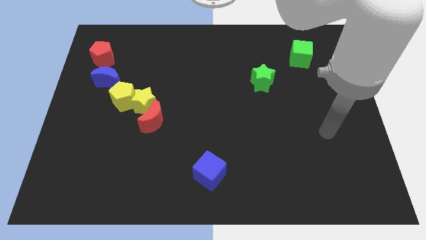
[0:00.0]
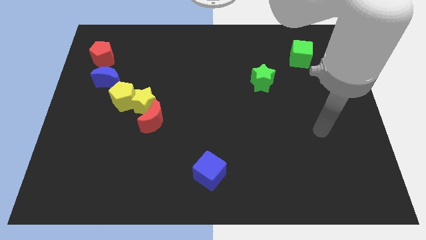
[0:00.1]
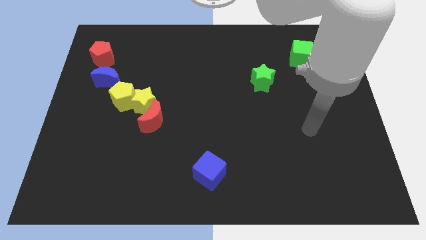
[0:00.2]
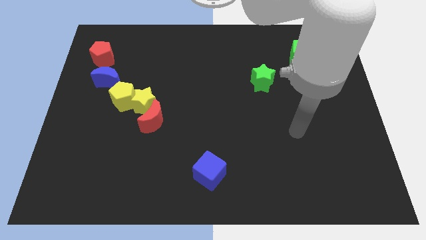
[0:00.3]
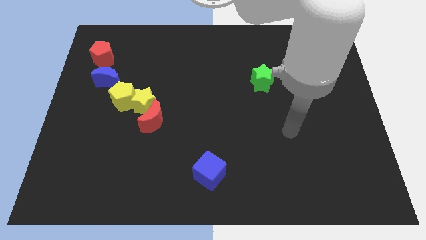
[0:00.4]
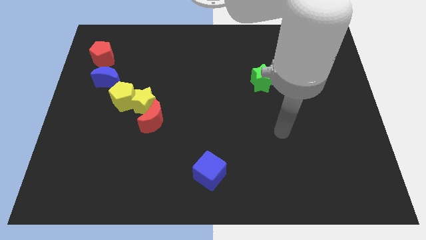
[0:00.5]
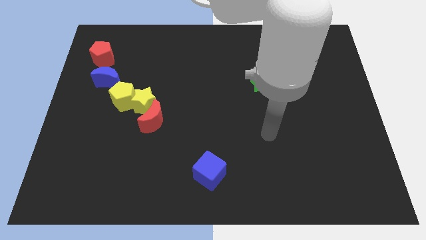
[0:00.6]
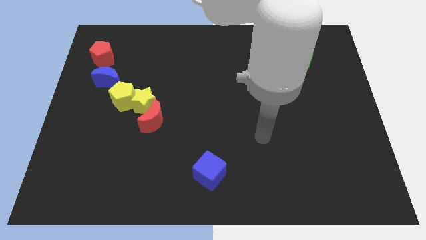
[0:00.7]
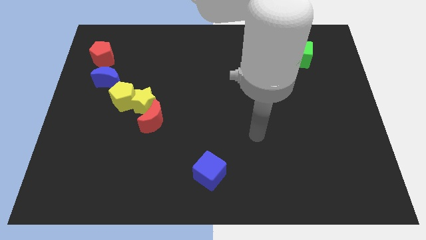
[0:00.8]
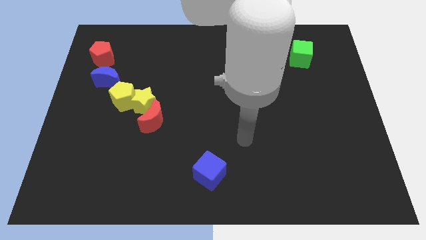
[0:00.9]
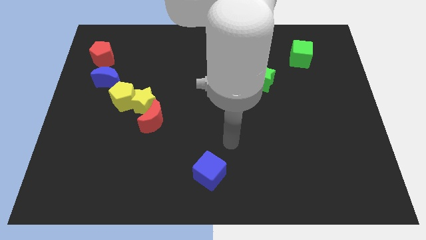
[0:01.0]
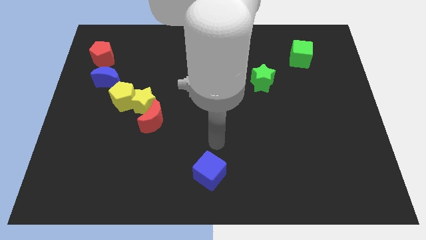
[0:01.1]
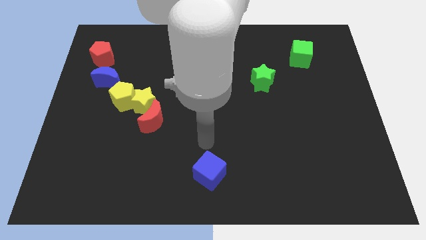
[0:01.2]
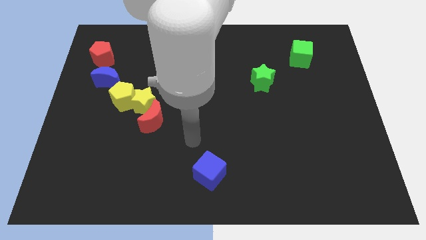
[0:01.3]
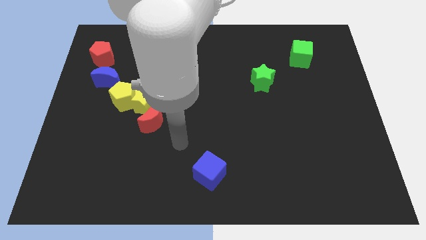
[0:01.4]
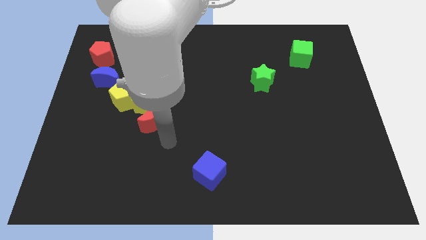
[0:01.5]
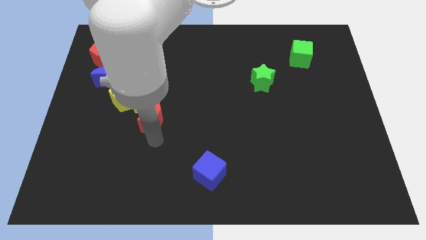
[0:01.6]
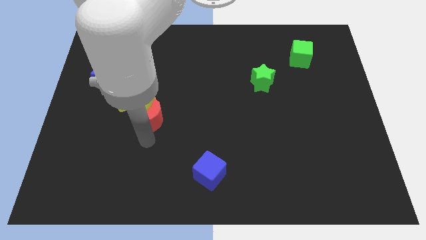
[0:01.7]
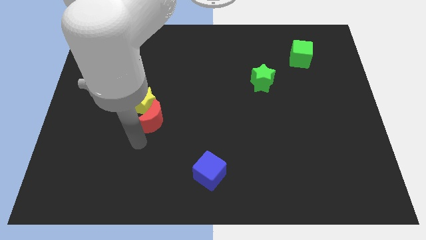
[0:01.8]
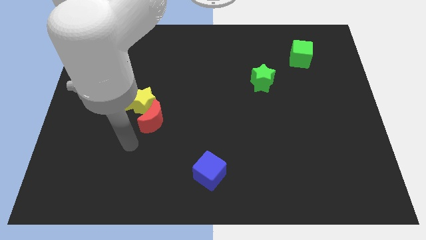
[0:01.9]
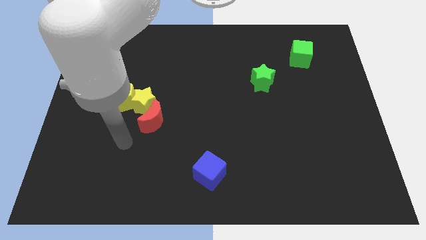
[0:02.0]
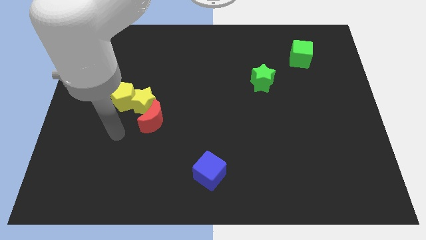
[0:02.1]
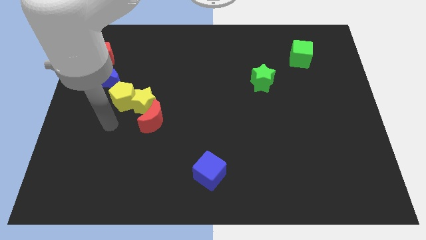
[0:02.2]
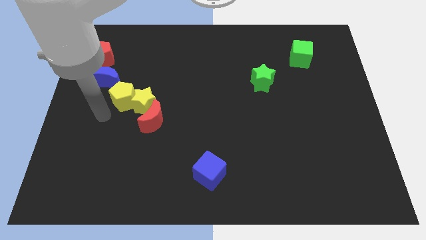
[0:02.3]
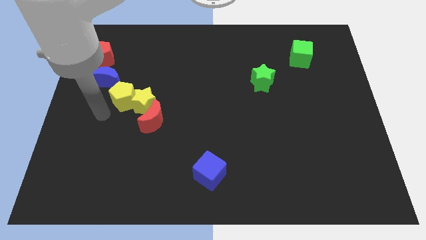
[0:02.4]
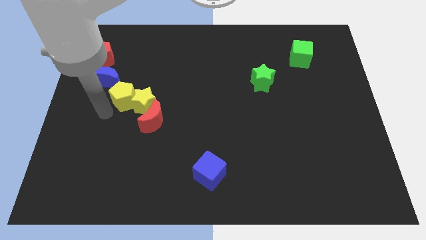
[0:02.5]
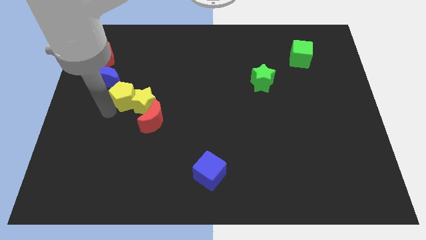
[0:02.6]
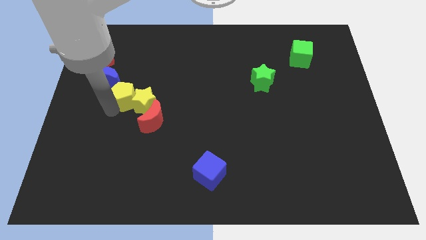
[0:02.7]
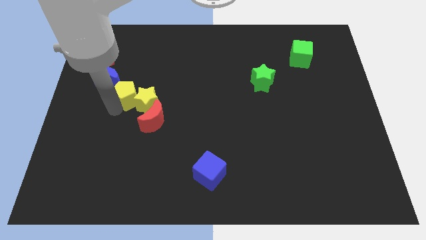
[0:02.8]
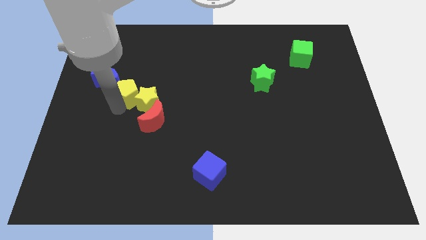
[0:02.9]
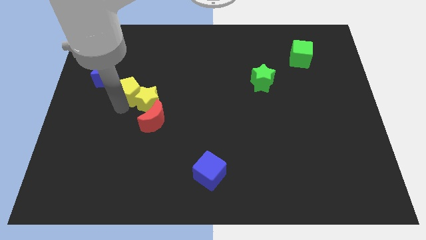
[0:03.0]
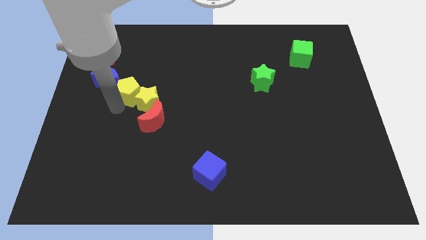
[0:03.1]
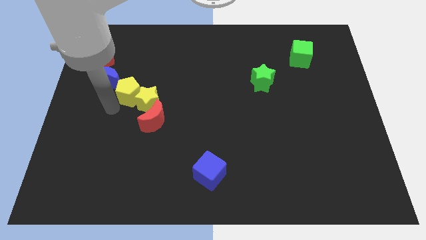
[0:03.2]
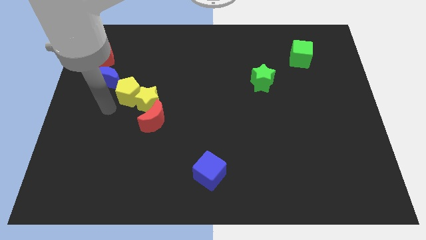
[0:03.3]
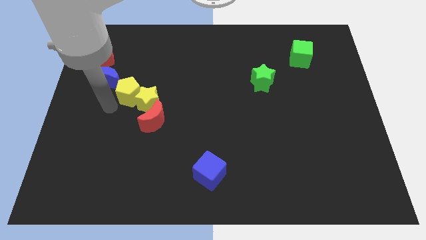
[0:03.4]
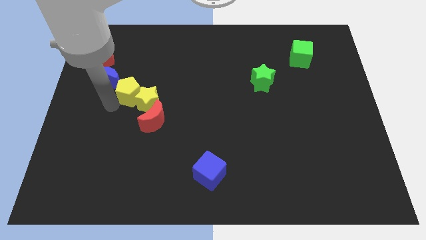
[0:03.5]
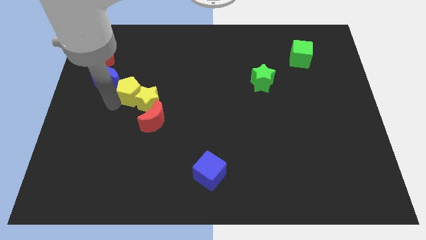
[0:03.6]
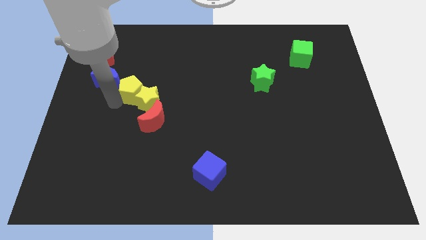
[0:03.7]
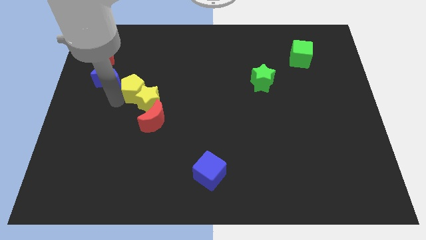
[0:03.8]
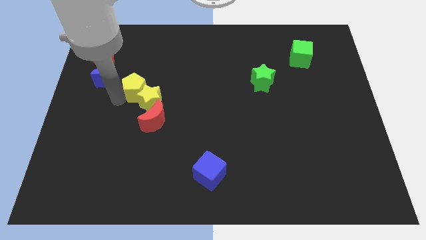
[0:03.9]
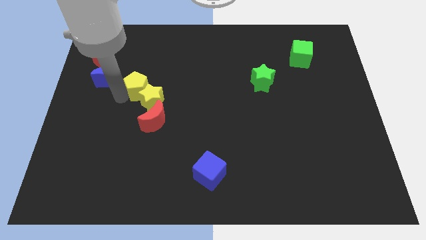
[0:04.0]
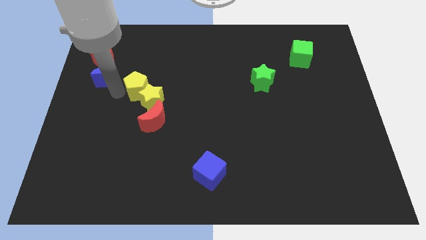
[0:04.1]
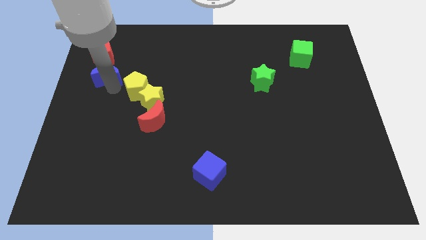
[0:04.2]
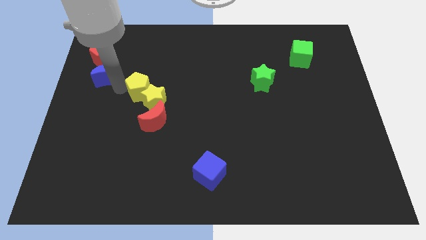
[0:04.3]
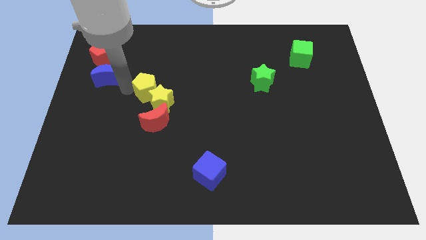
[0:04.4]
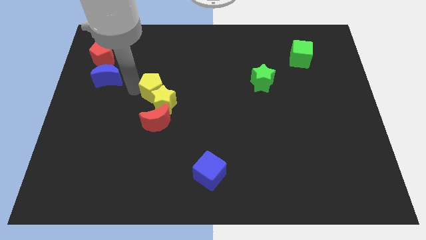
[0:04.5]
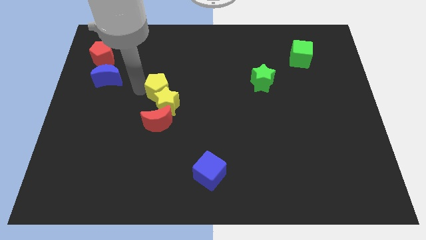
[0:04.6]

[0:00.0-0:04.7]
slide the yellow pentagon a little right

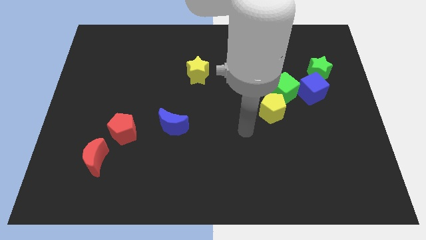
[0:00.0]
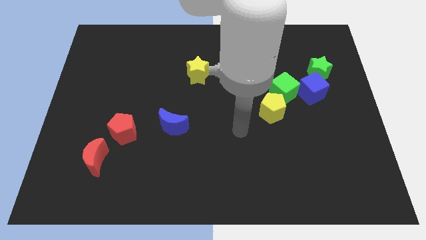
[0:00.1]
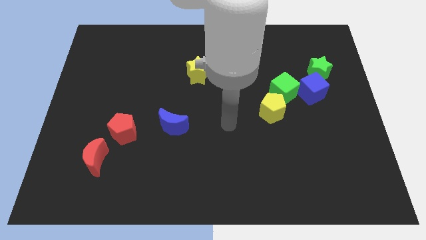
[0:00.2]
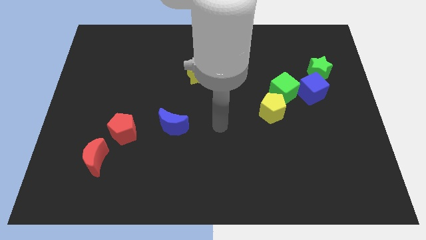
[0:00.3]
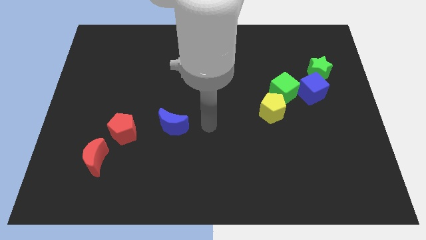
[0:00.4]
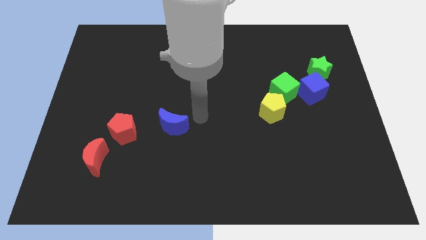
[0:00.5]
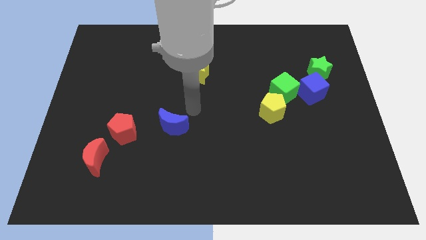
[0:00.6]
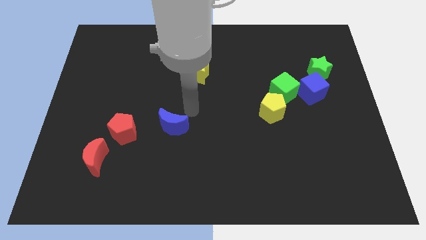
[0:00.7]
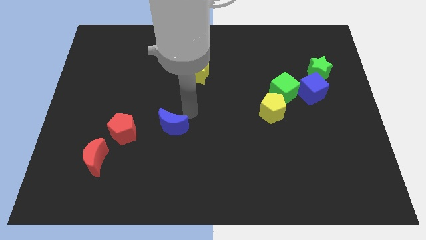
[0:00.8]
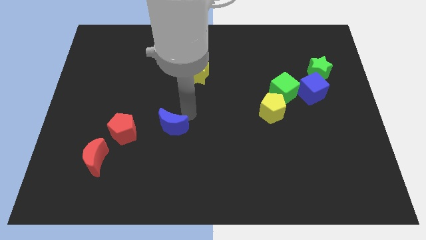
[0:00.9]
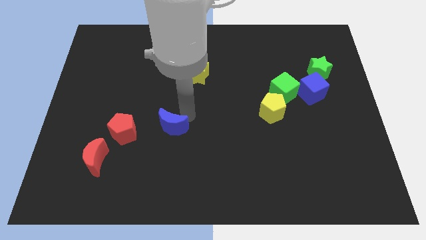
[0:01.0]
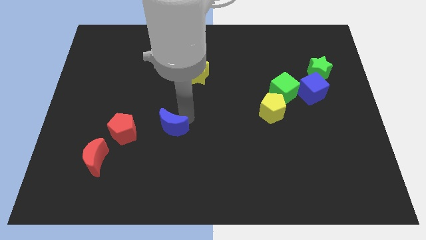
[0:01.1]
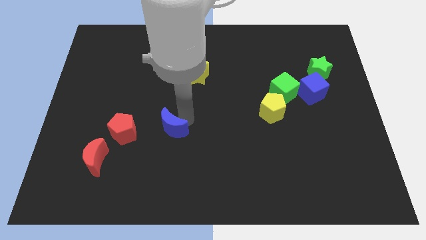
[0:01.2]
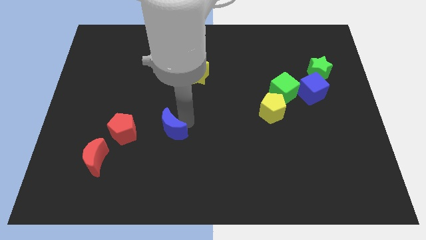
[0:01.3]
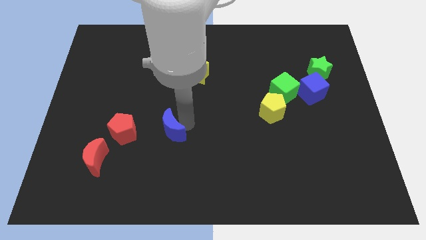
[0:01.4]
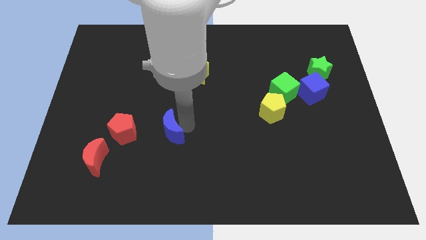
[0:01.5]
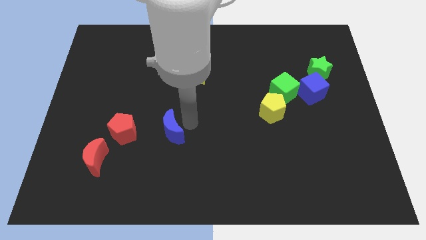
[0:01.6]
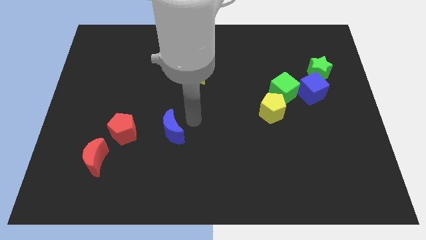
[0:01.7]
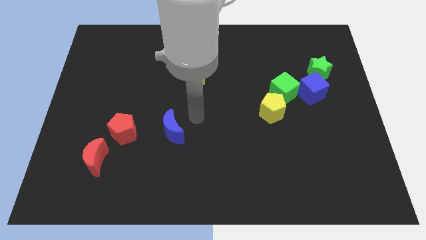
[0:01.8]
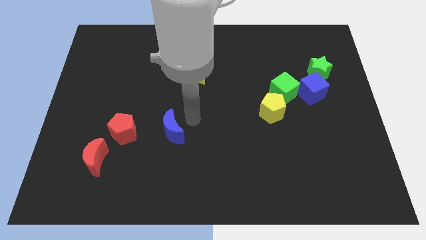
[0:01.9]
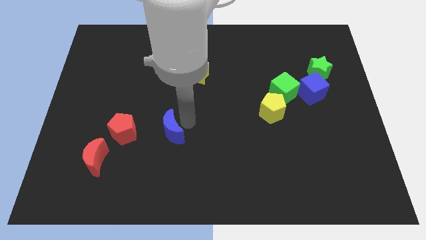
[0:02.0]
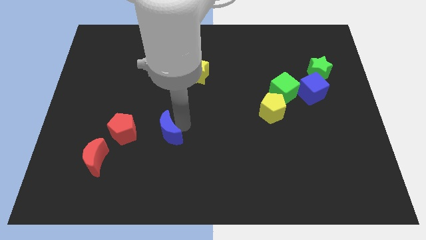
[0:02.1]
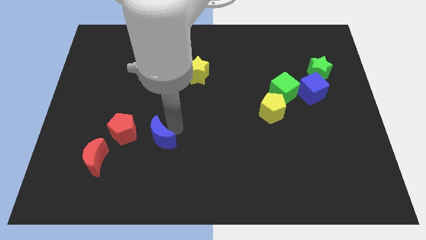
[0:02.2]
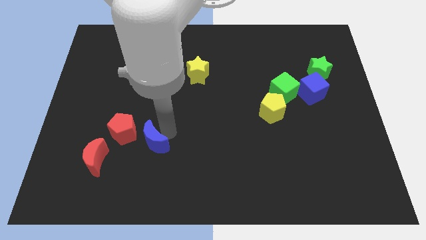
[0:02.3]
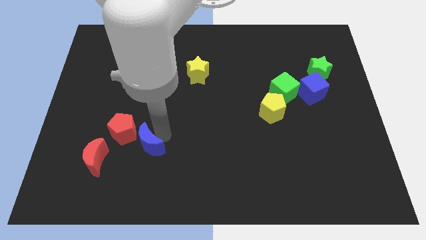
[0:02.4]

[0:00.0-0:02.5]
move the blue moon slightly down and to the left

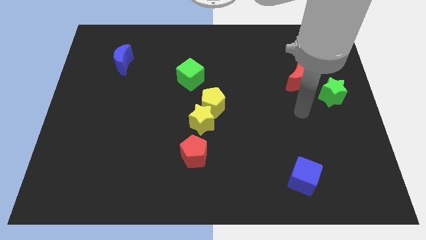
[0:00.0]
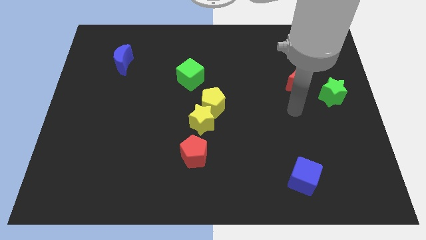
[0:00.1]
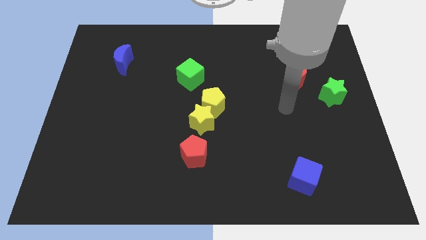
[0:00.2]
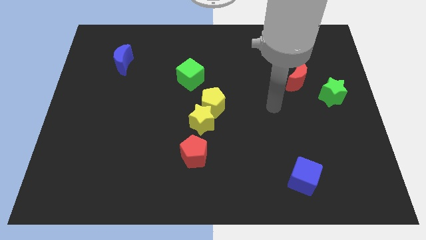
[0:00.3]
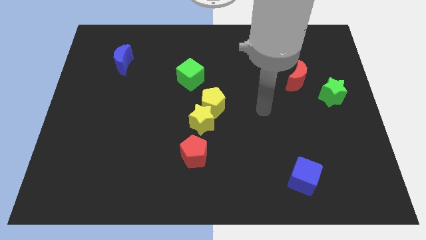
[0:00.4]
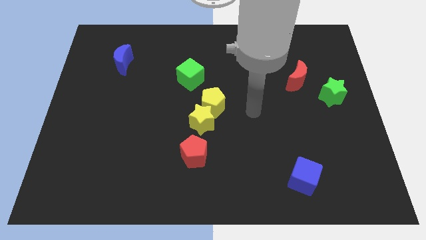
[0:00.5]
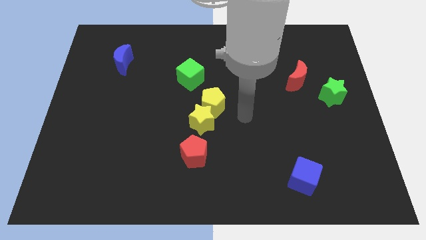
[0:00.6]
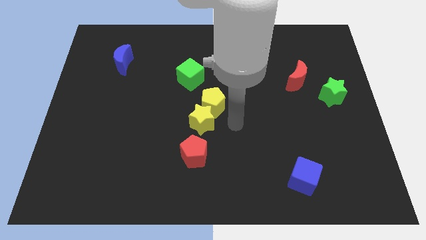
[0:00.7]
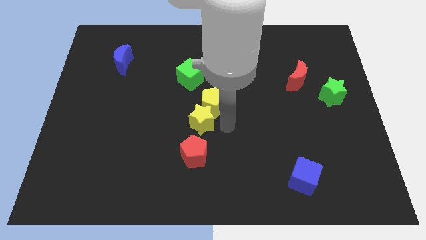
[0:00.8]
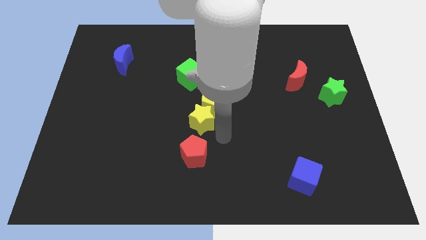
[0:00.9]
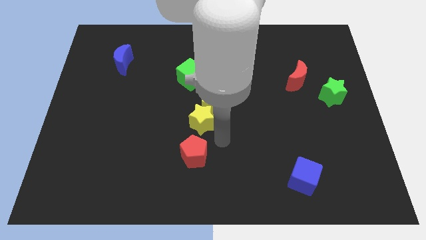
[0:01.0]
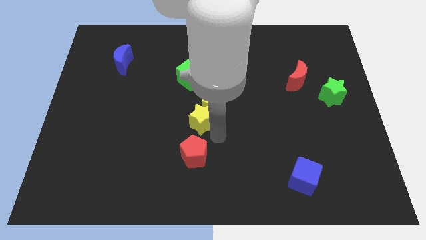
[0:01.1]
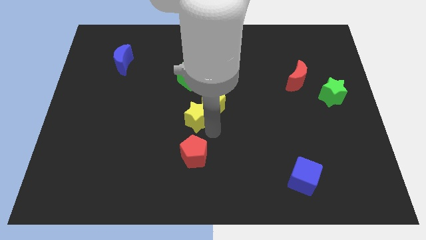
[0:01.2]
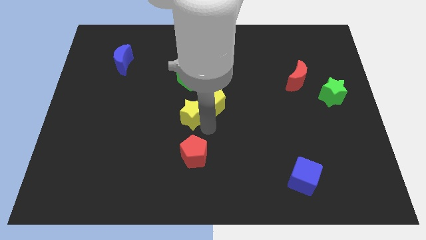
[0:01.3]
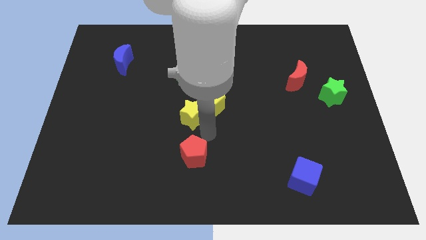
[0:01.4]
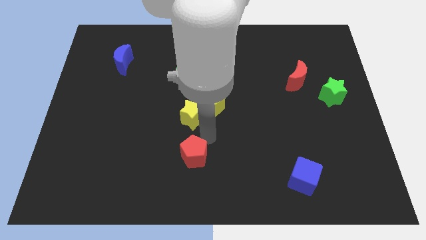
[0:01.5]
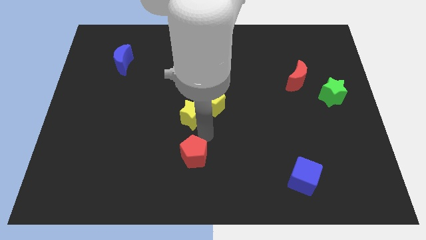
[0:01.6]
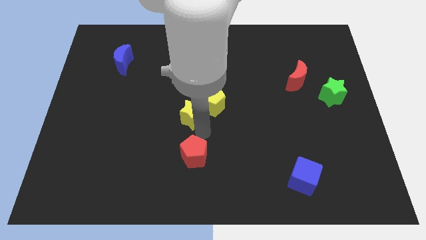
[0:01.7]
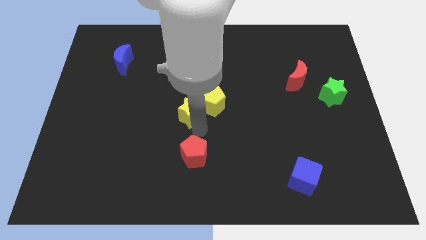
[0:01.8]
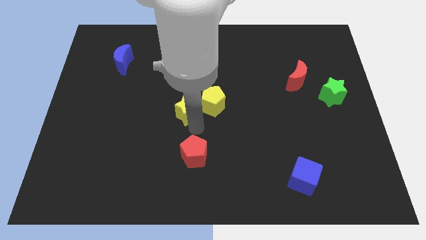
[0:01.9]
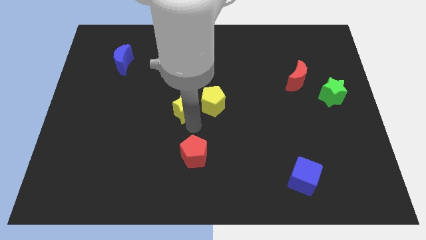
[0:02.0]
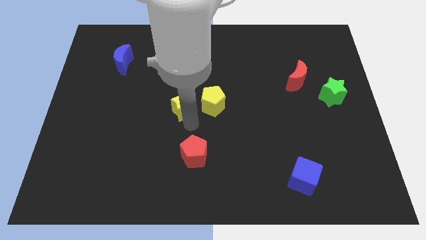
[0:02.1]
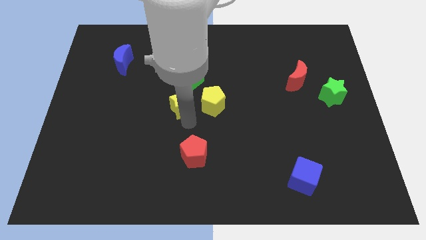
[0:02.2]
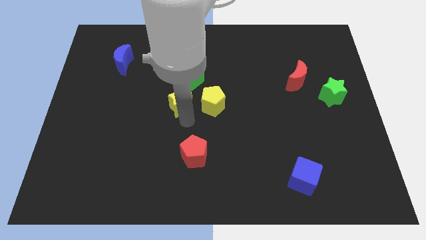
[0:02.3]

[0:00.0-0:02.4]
slightly move the yellow star upwards and left
